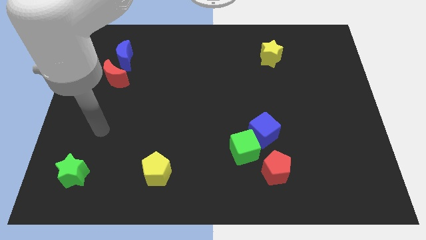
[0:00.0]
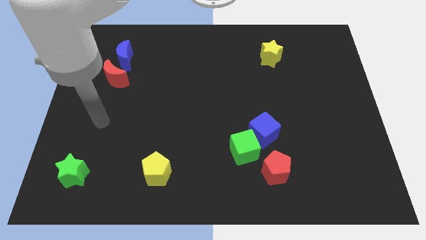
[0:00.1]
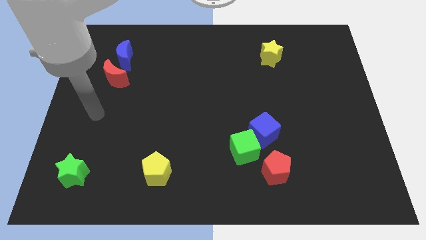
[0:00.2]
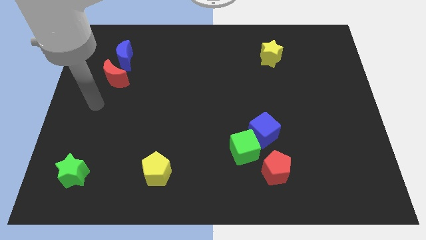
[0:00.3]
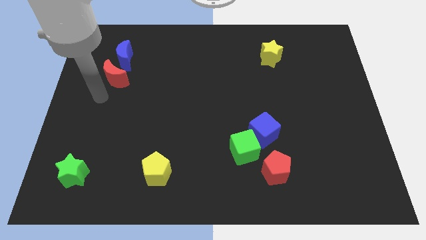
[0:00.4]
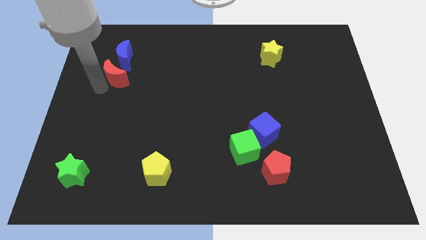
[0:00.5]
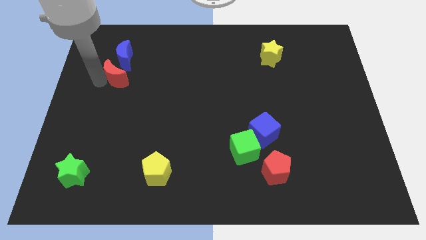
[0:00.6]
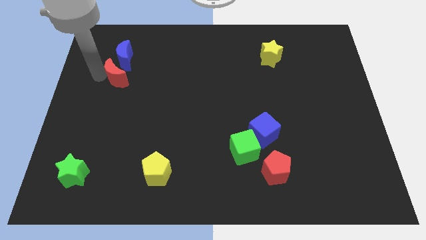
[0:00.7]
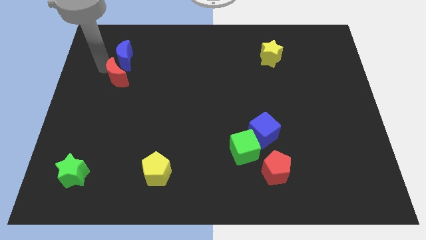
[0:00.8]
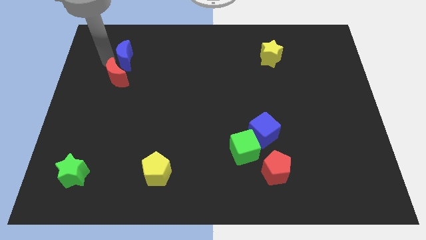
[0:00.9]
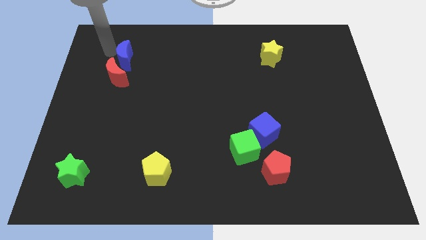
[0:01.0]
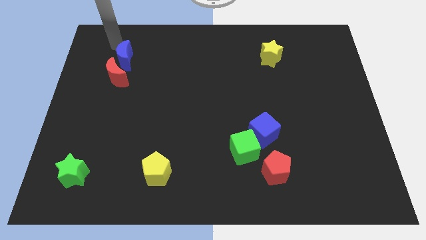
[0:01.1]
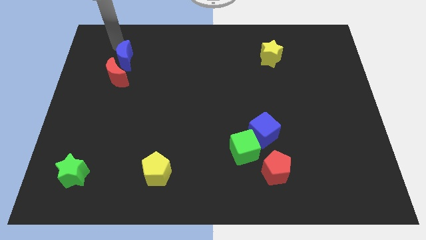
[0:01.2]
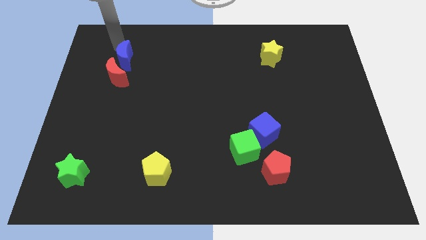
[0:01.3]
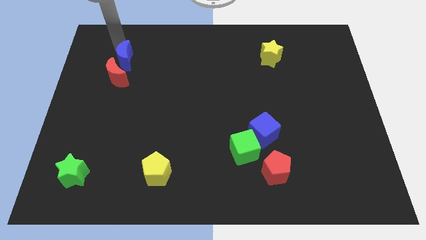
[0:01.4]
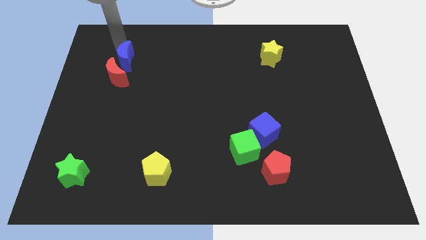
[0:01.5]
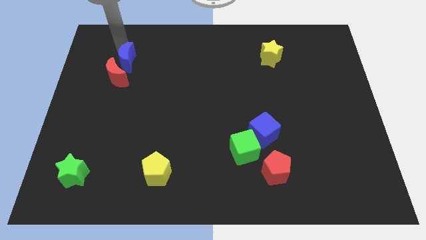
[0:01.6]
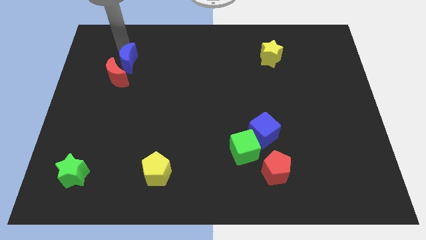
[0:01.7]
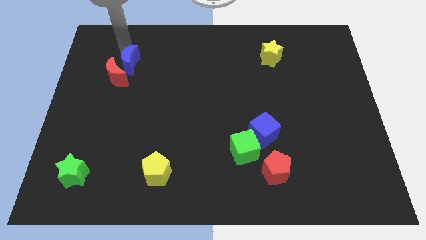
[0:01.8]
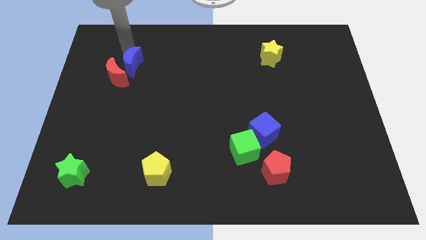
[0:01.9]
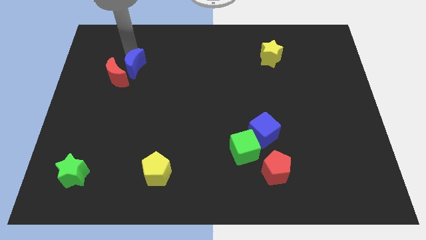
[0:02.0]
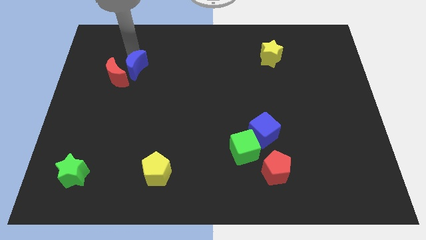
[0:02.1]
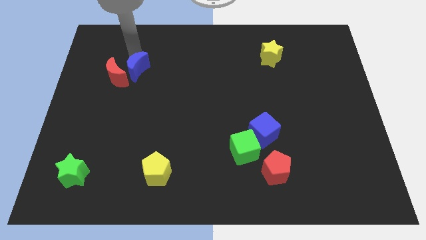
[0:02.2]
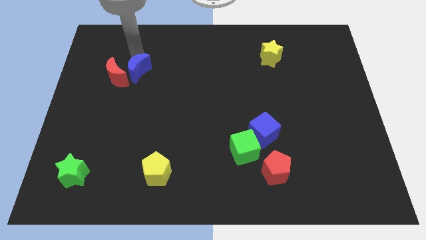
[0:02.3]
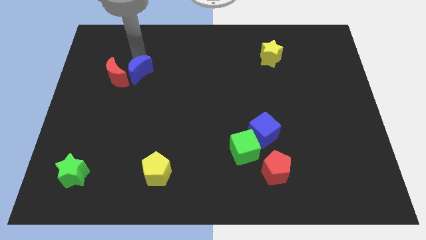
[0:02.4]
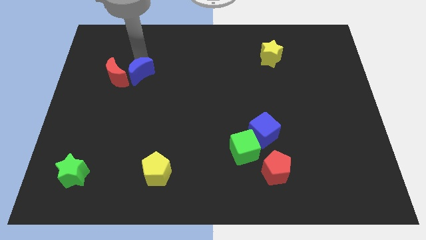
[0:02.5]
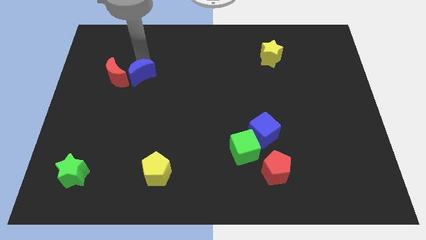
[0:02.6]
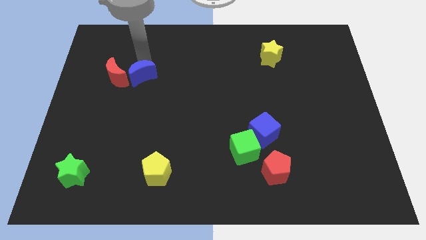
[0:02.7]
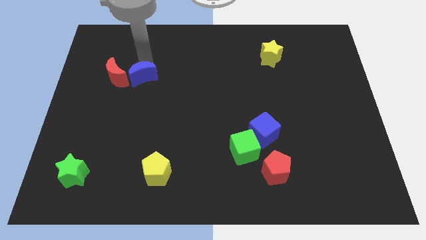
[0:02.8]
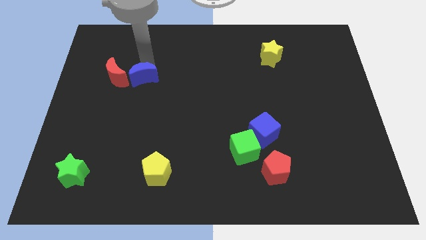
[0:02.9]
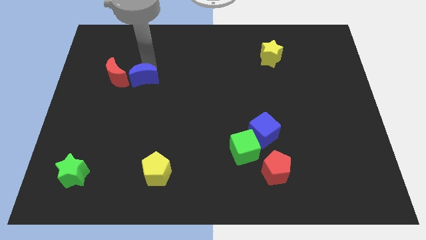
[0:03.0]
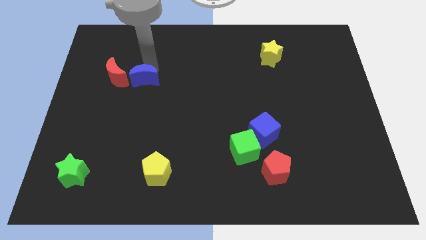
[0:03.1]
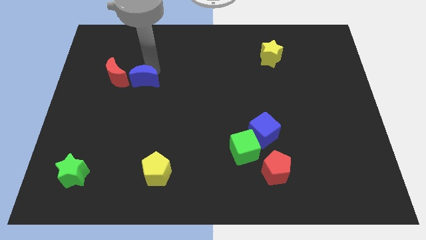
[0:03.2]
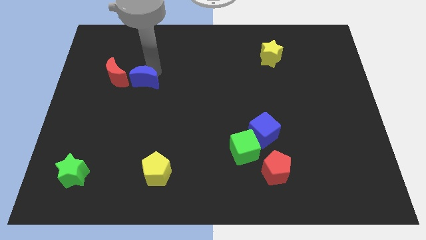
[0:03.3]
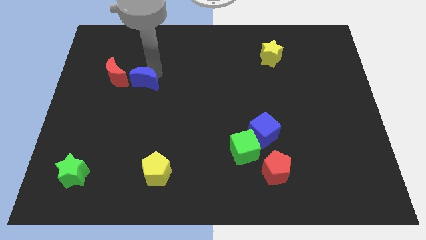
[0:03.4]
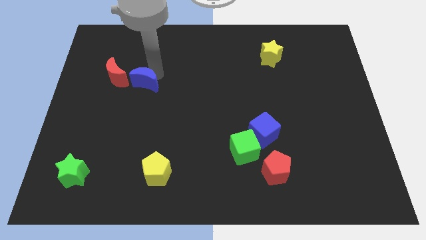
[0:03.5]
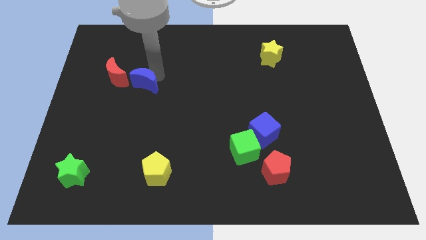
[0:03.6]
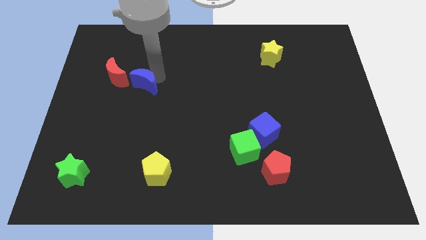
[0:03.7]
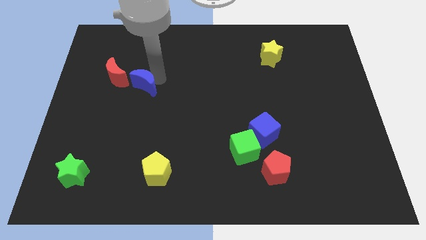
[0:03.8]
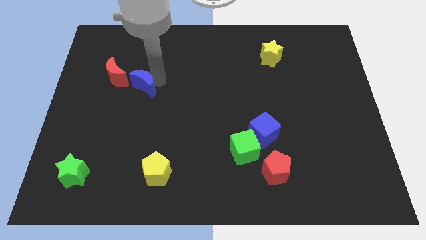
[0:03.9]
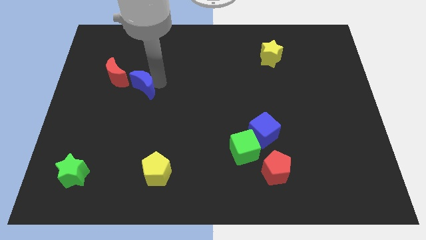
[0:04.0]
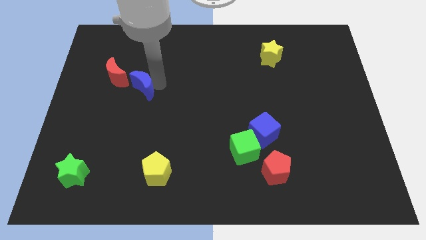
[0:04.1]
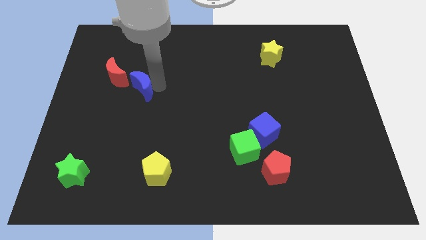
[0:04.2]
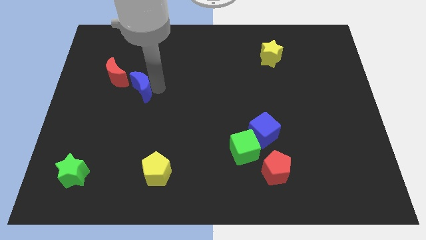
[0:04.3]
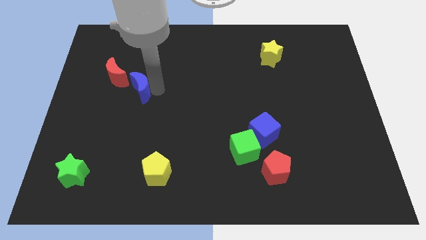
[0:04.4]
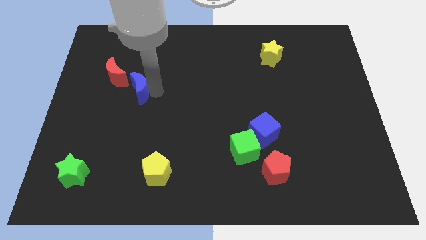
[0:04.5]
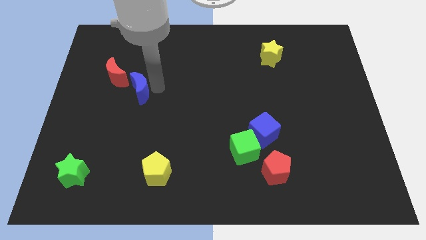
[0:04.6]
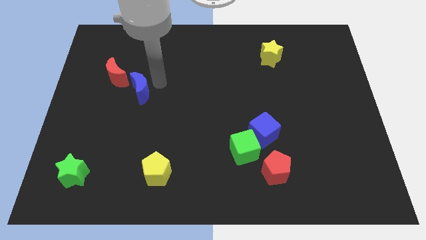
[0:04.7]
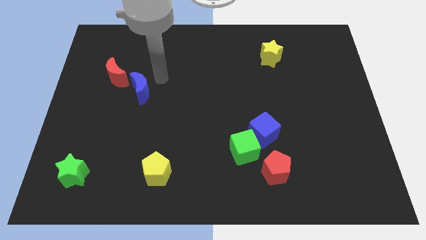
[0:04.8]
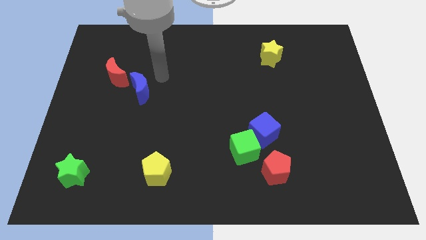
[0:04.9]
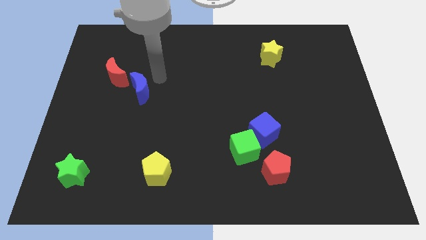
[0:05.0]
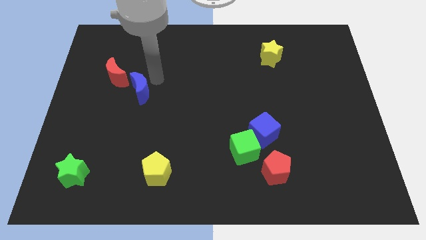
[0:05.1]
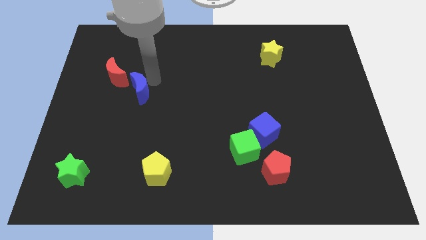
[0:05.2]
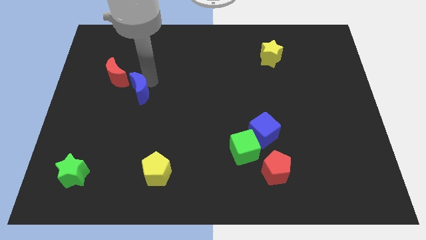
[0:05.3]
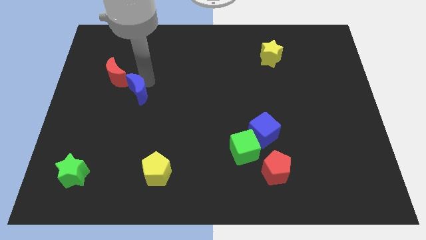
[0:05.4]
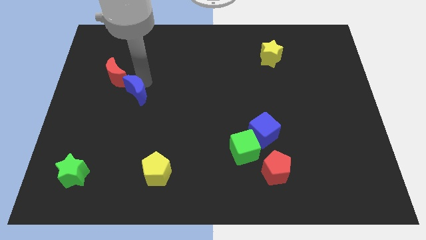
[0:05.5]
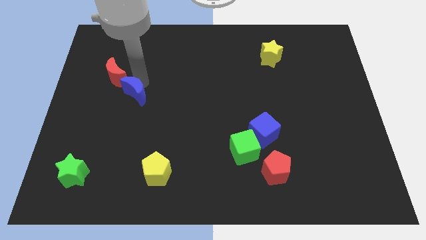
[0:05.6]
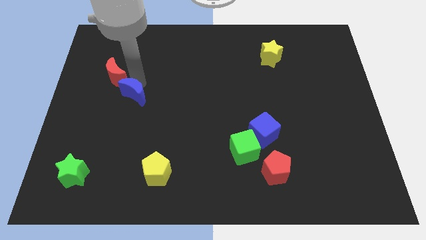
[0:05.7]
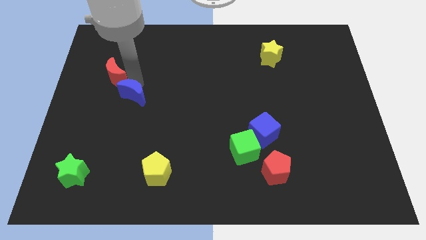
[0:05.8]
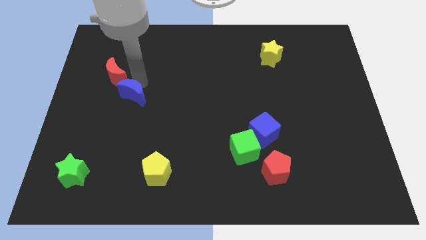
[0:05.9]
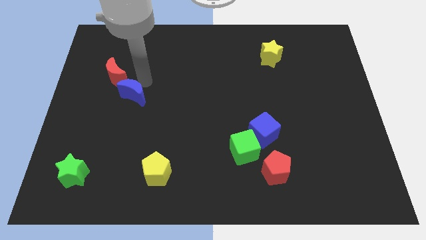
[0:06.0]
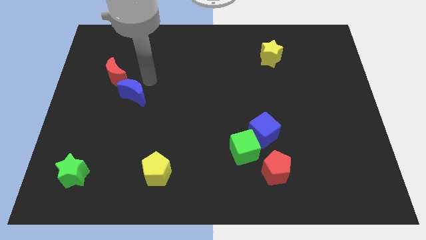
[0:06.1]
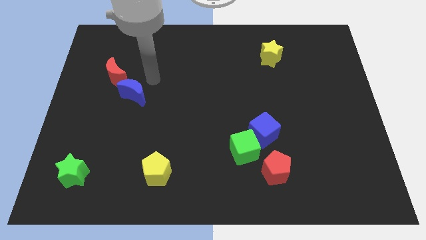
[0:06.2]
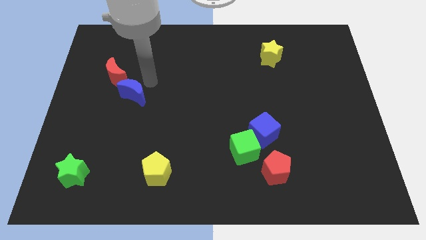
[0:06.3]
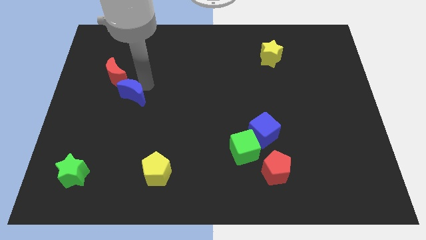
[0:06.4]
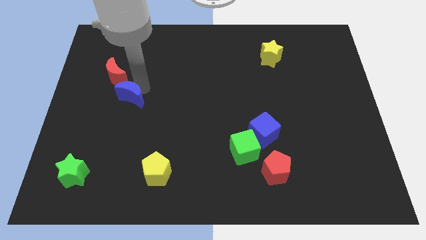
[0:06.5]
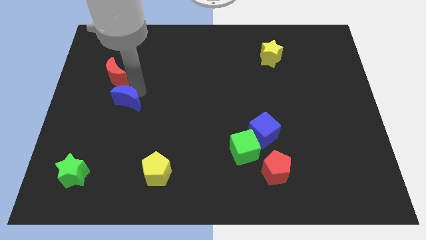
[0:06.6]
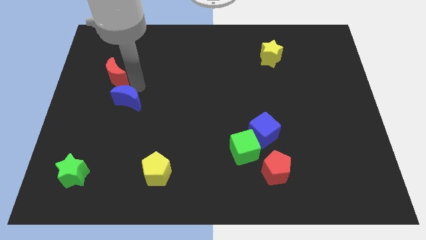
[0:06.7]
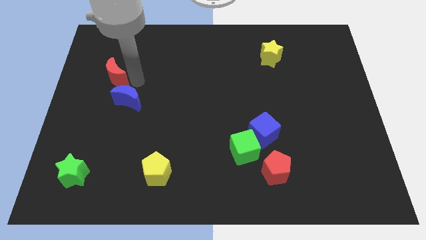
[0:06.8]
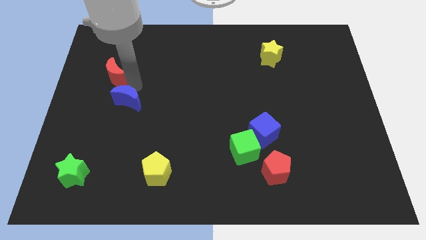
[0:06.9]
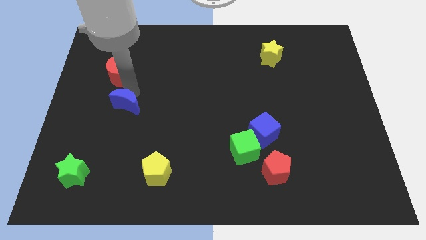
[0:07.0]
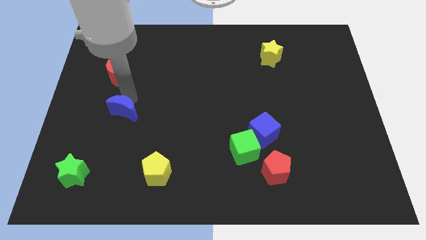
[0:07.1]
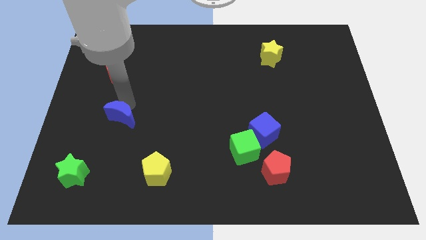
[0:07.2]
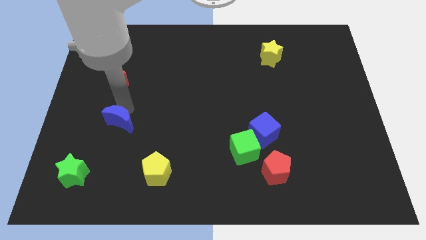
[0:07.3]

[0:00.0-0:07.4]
slide the blue moon downwards

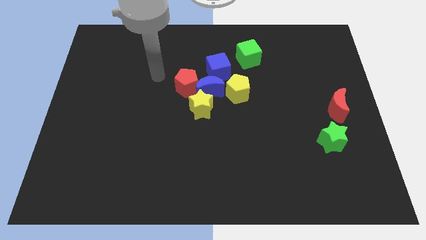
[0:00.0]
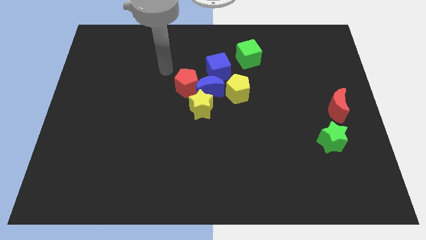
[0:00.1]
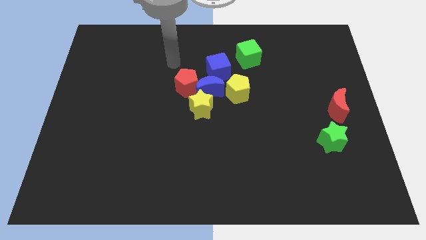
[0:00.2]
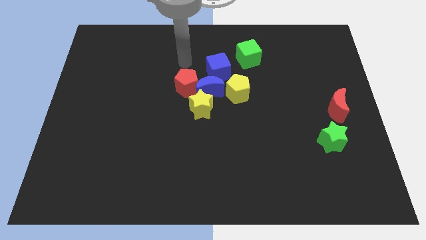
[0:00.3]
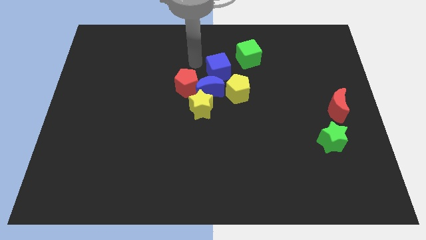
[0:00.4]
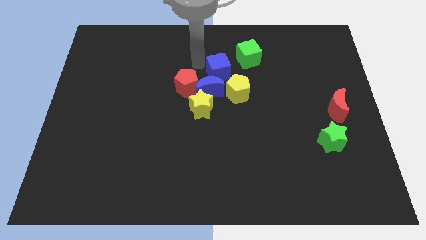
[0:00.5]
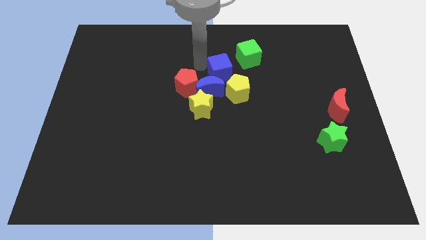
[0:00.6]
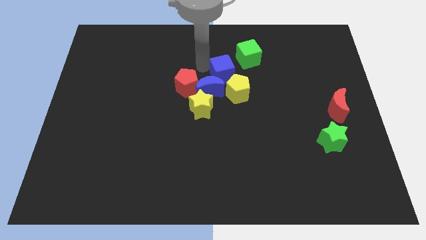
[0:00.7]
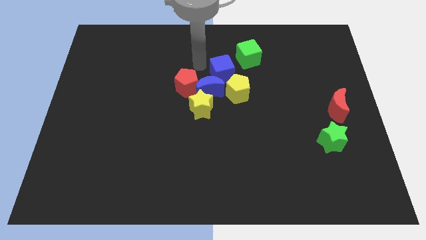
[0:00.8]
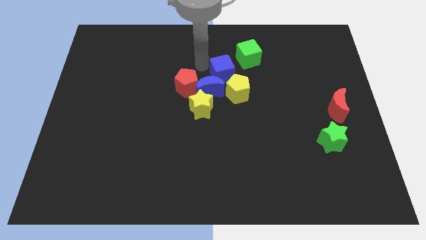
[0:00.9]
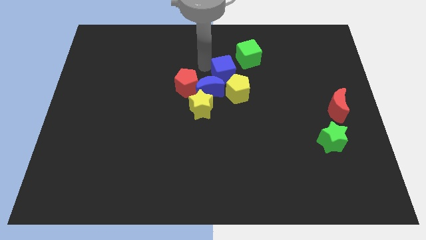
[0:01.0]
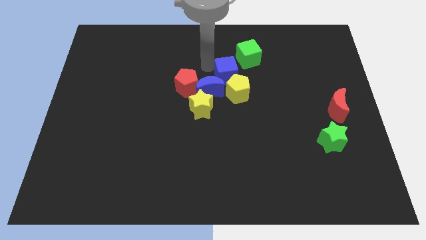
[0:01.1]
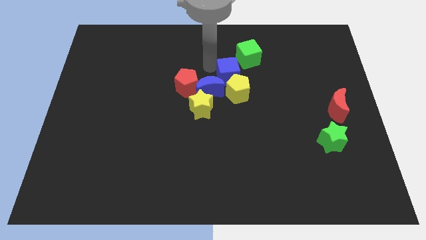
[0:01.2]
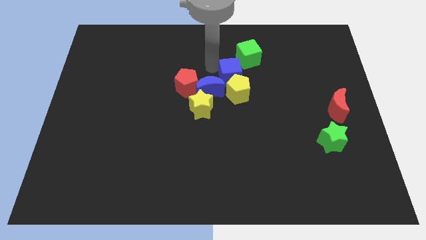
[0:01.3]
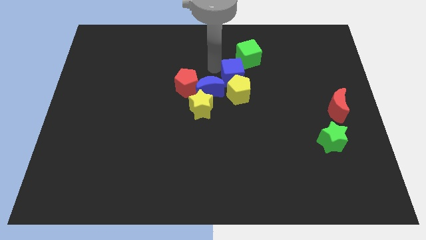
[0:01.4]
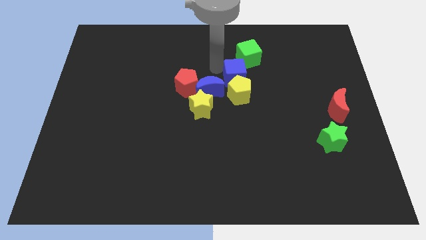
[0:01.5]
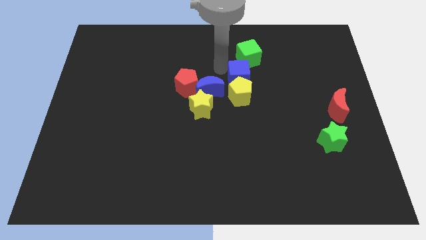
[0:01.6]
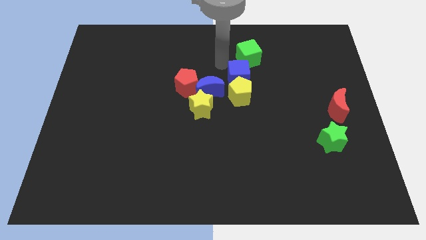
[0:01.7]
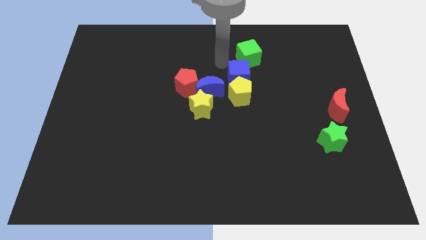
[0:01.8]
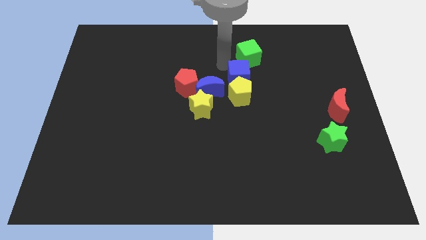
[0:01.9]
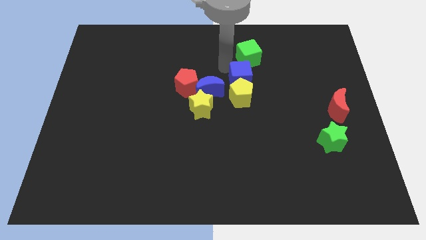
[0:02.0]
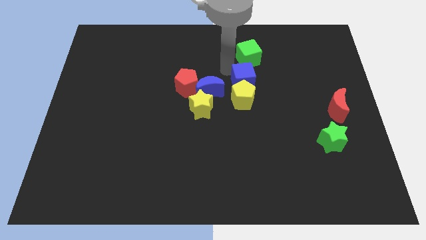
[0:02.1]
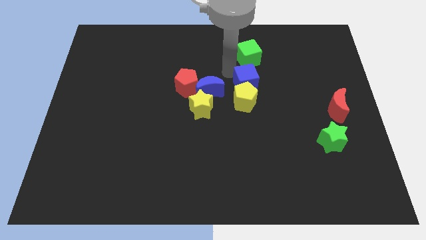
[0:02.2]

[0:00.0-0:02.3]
move the blue cube downwards and to the right a little bit
